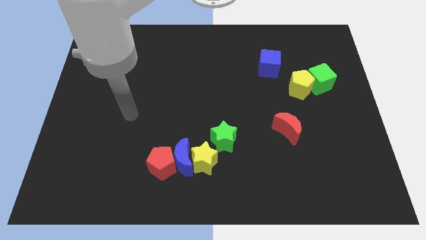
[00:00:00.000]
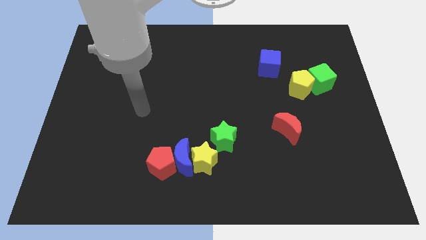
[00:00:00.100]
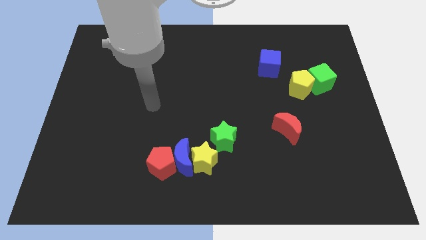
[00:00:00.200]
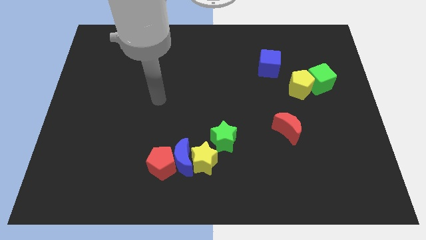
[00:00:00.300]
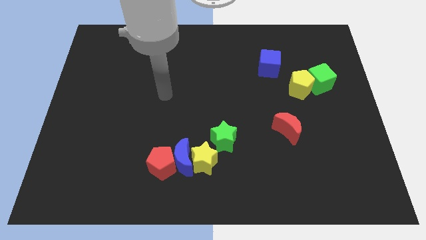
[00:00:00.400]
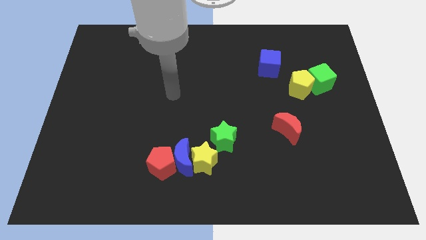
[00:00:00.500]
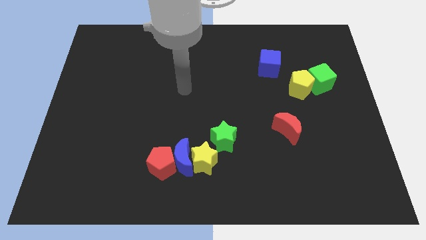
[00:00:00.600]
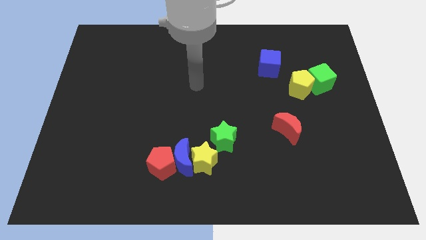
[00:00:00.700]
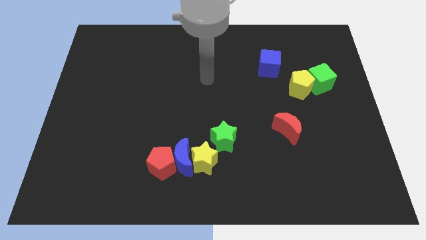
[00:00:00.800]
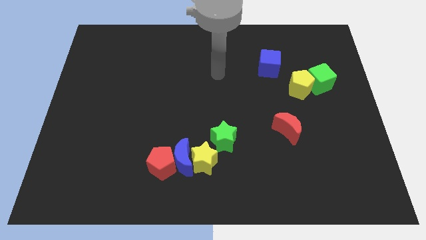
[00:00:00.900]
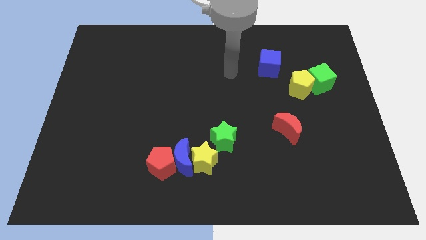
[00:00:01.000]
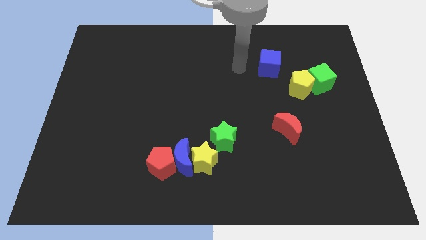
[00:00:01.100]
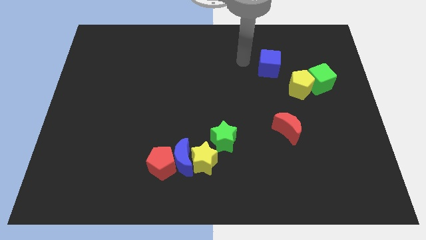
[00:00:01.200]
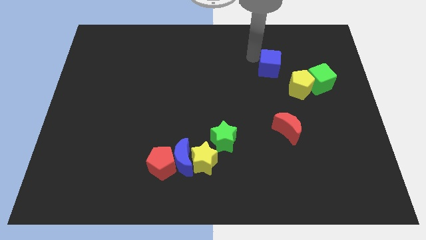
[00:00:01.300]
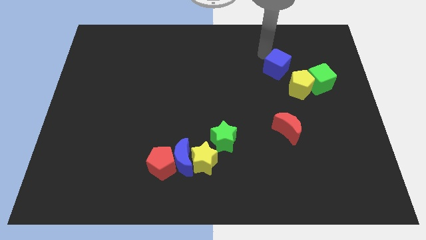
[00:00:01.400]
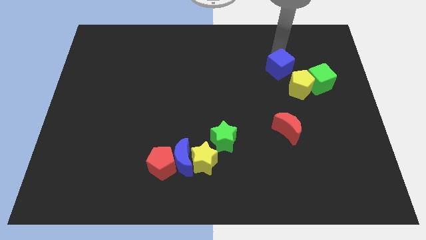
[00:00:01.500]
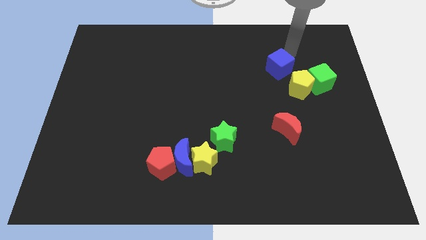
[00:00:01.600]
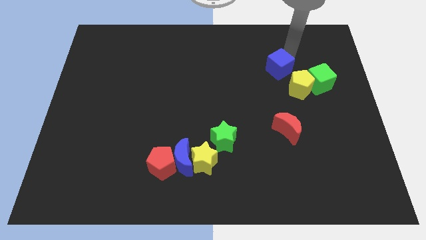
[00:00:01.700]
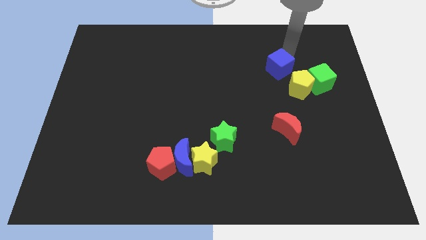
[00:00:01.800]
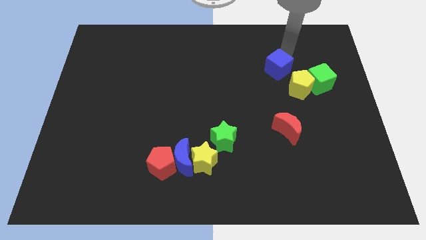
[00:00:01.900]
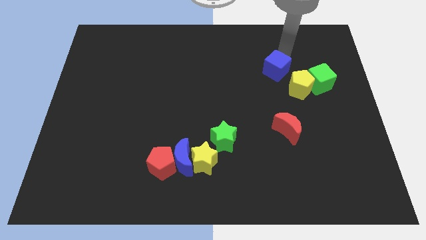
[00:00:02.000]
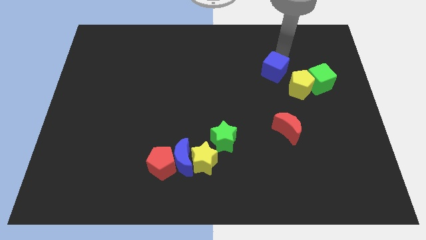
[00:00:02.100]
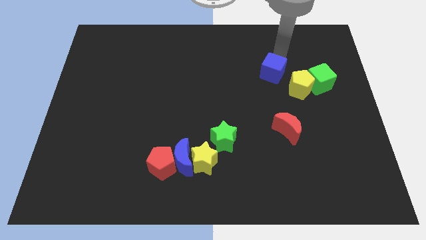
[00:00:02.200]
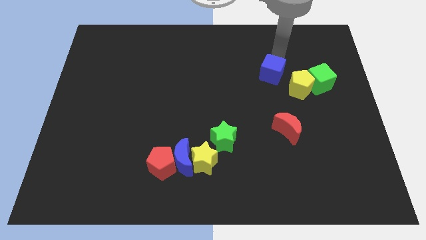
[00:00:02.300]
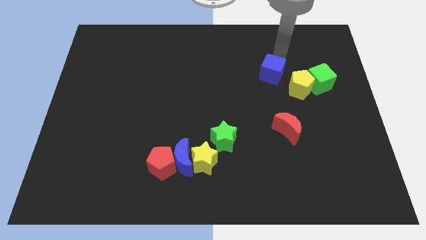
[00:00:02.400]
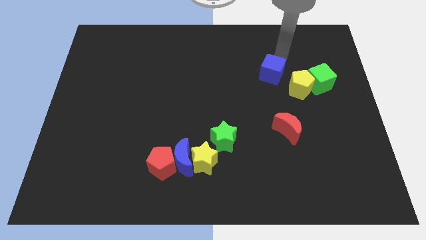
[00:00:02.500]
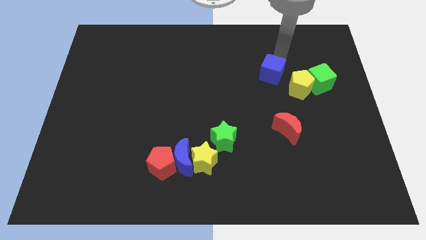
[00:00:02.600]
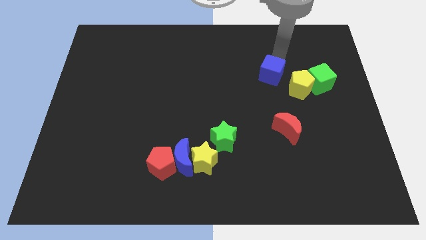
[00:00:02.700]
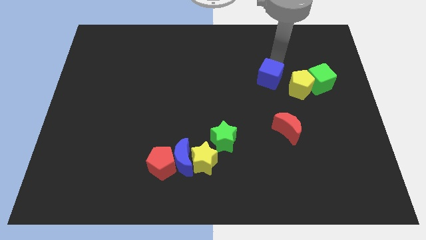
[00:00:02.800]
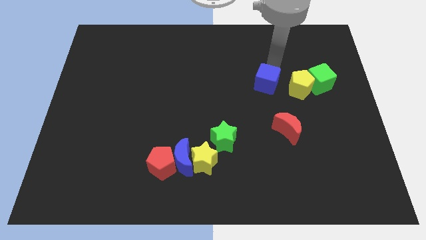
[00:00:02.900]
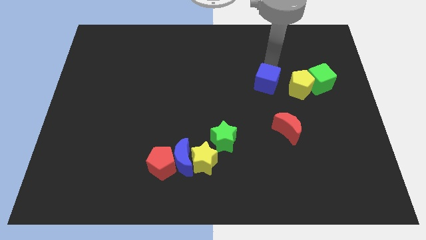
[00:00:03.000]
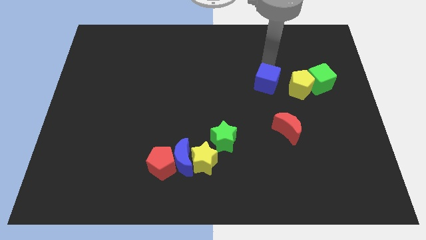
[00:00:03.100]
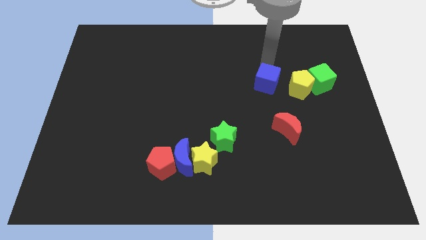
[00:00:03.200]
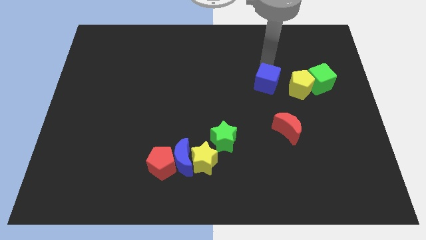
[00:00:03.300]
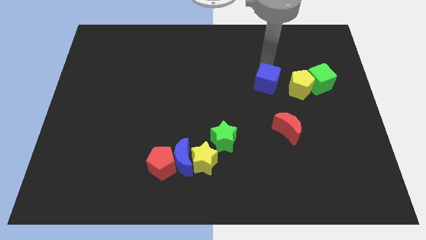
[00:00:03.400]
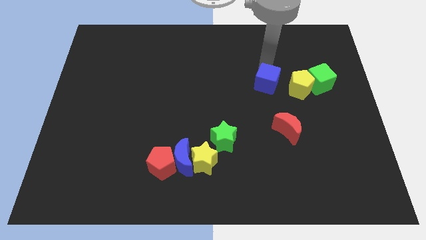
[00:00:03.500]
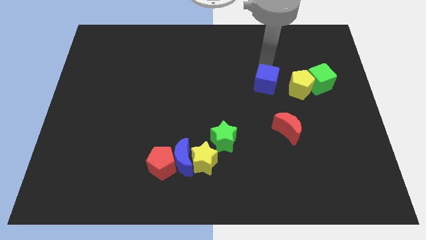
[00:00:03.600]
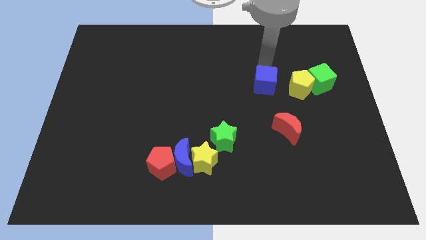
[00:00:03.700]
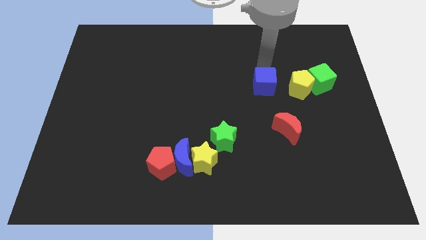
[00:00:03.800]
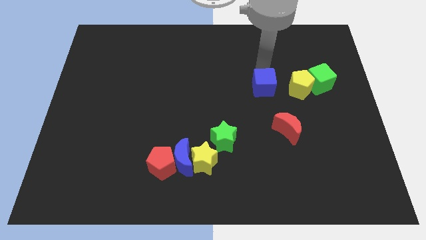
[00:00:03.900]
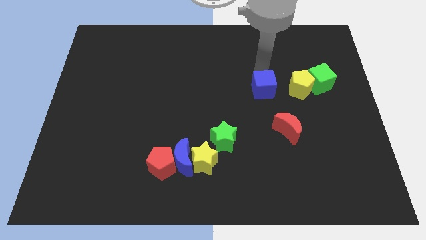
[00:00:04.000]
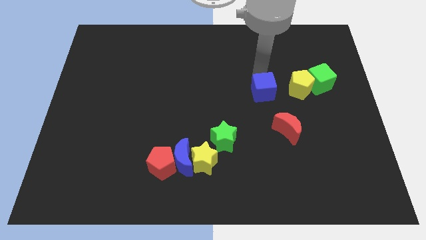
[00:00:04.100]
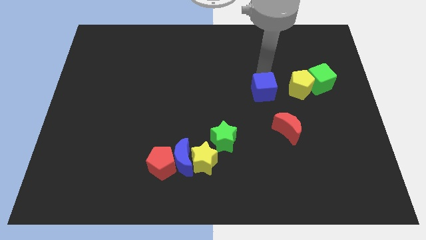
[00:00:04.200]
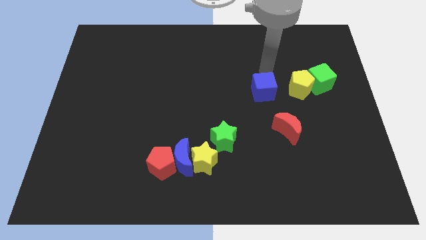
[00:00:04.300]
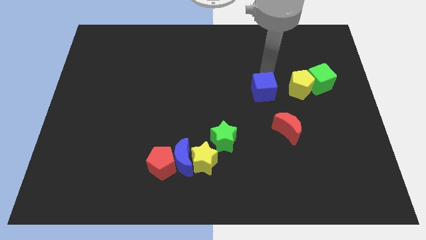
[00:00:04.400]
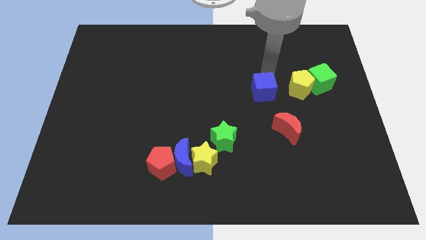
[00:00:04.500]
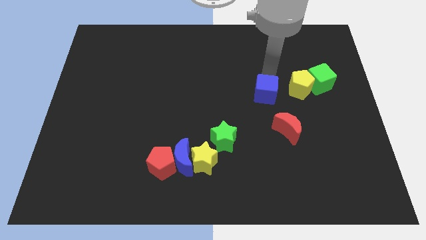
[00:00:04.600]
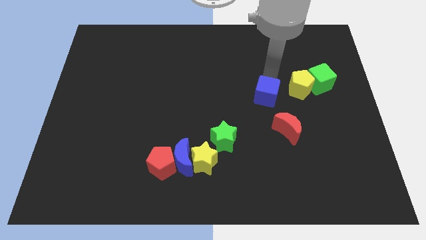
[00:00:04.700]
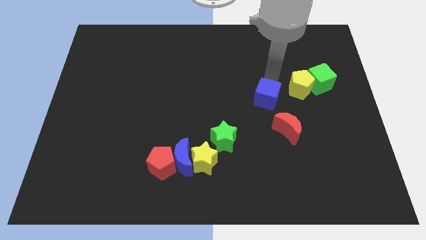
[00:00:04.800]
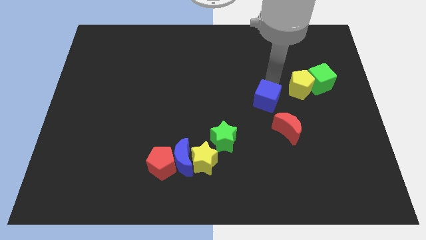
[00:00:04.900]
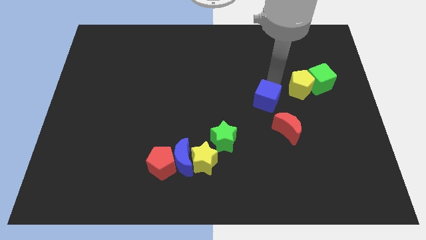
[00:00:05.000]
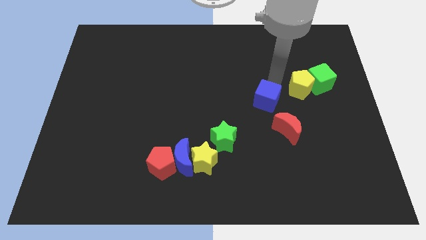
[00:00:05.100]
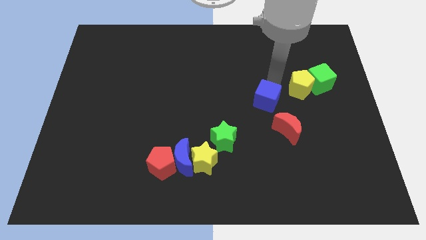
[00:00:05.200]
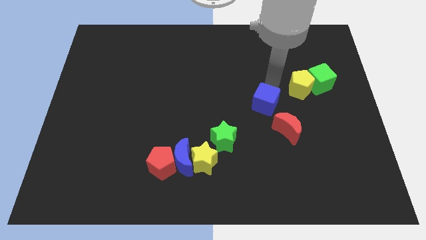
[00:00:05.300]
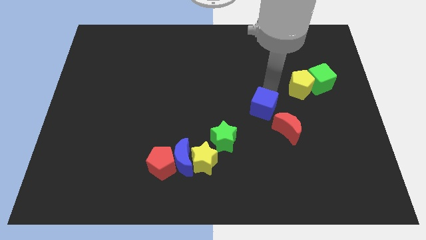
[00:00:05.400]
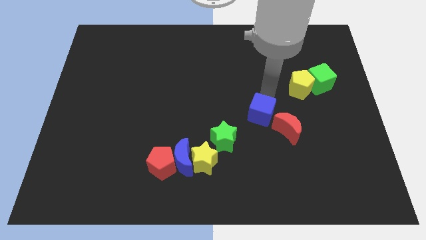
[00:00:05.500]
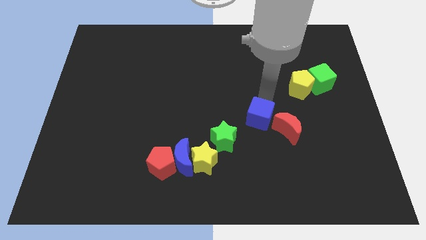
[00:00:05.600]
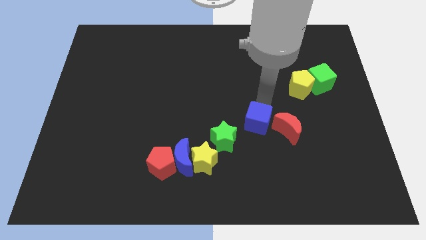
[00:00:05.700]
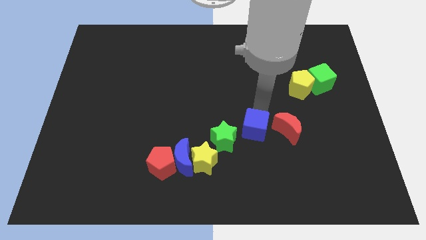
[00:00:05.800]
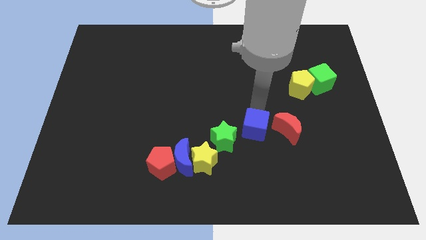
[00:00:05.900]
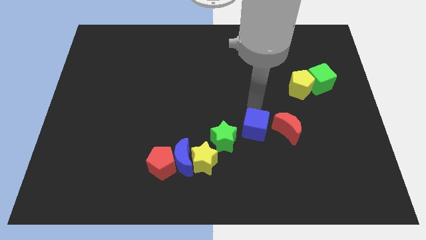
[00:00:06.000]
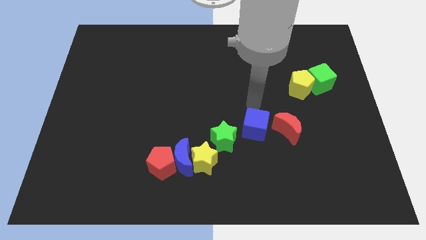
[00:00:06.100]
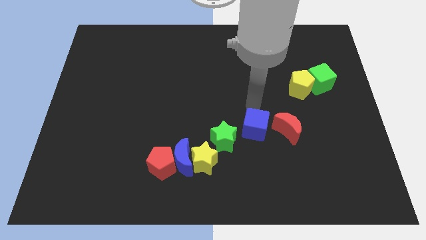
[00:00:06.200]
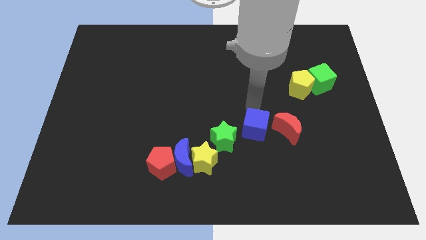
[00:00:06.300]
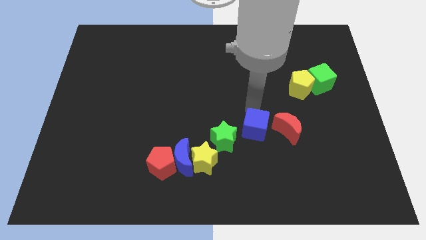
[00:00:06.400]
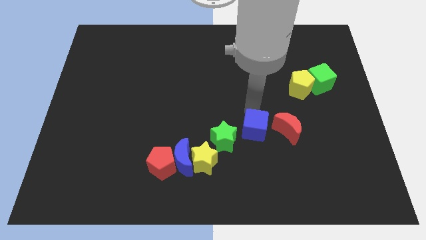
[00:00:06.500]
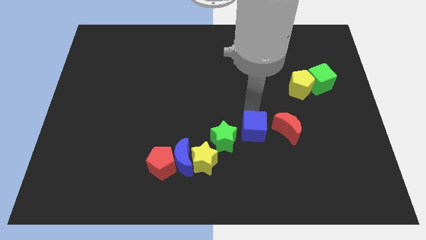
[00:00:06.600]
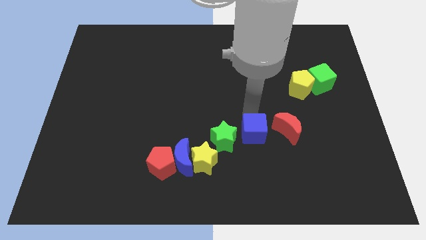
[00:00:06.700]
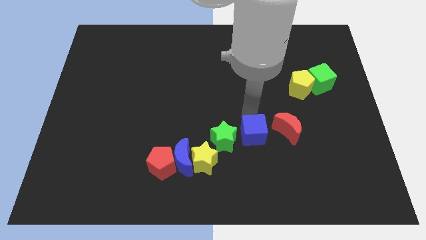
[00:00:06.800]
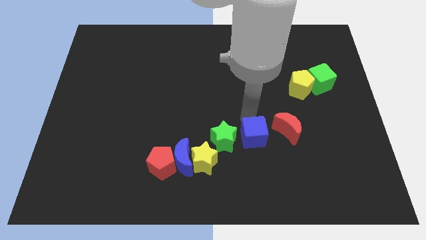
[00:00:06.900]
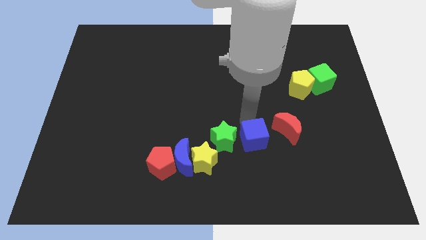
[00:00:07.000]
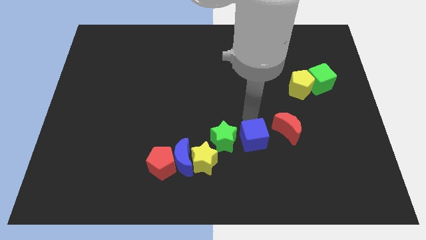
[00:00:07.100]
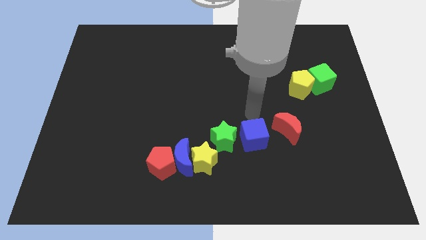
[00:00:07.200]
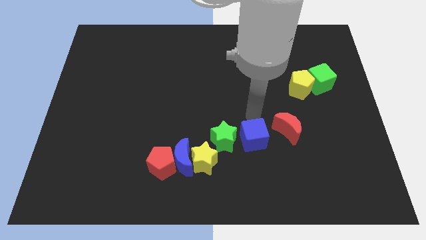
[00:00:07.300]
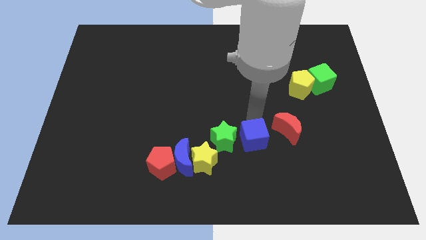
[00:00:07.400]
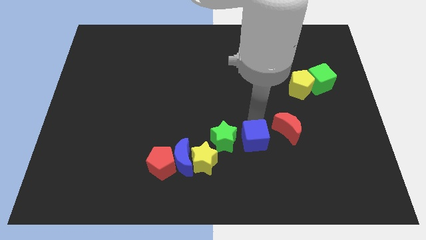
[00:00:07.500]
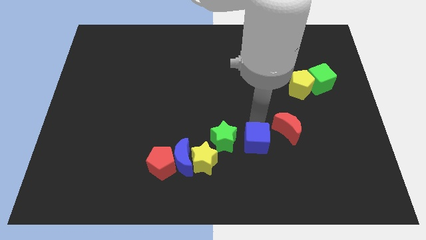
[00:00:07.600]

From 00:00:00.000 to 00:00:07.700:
slide the blue cube right of the yellow star
